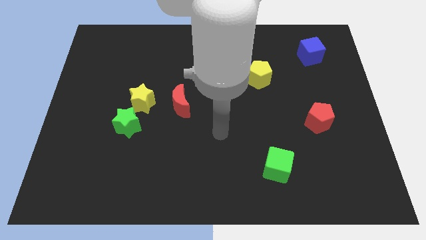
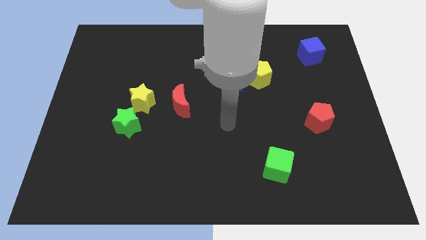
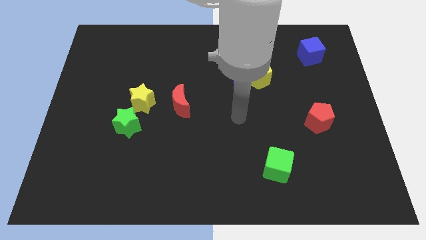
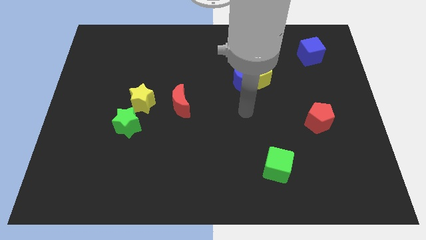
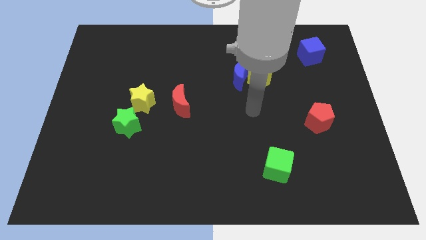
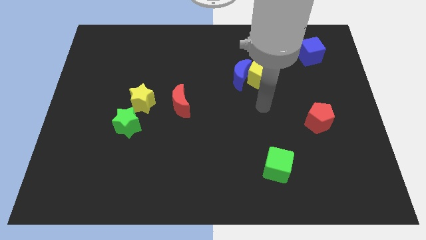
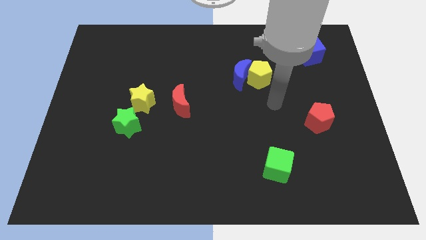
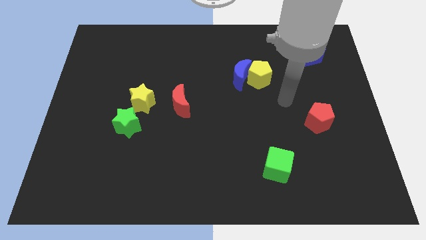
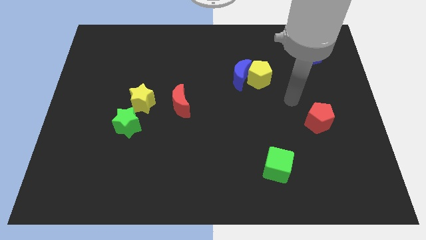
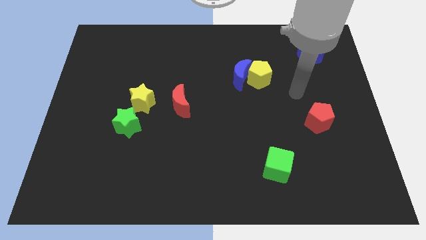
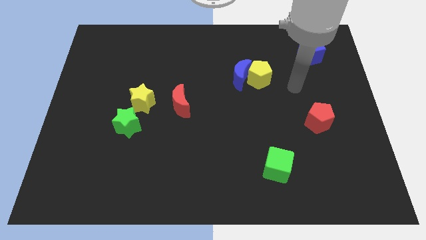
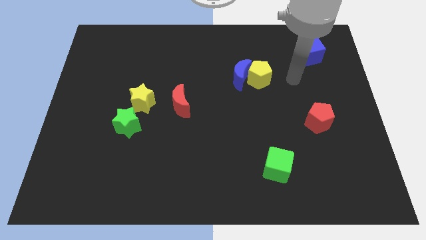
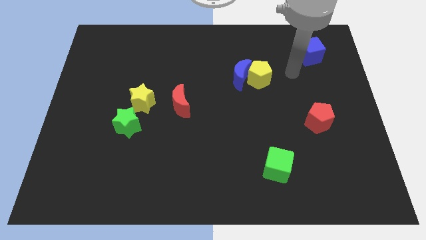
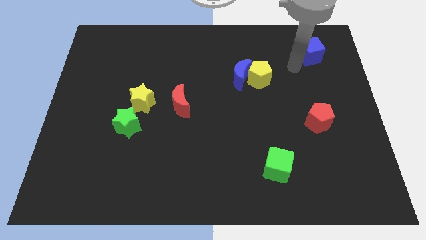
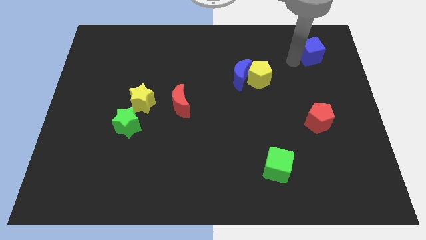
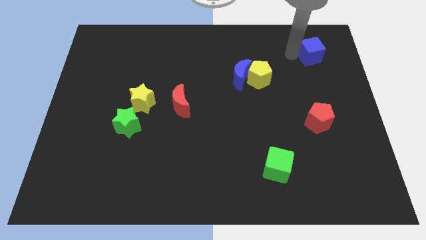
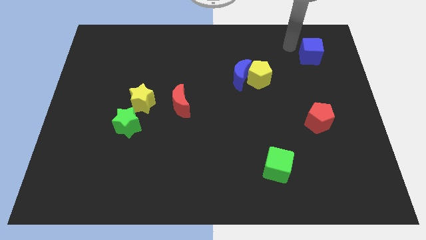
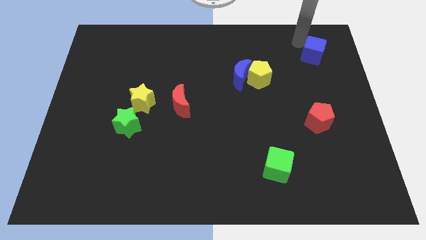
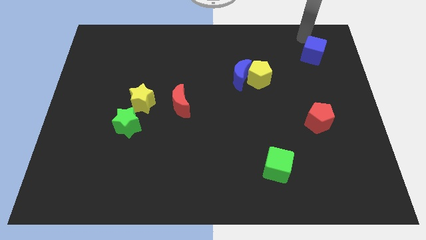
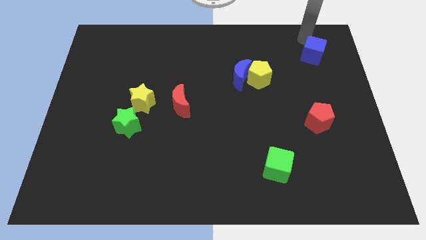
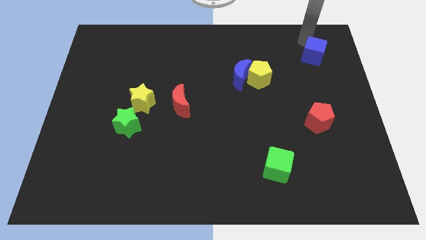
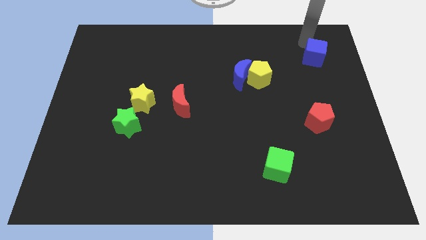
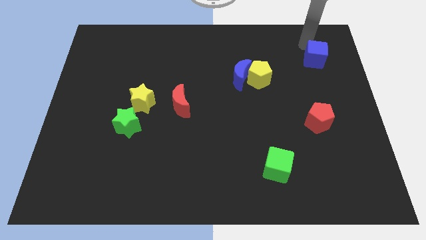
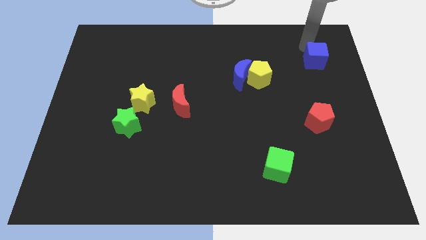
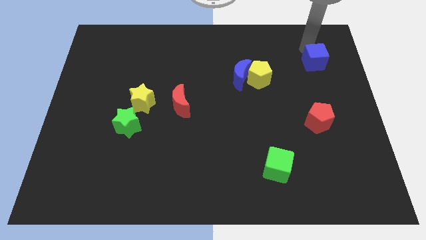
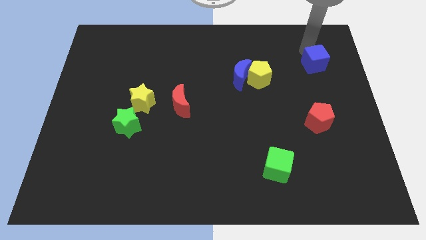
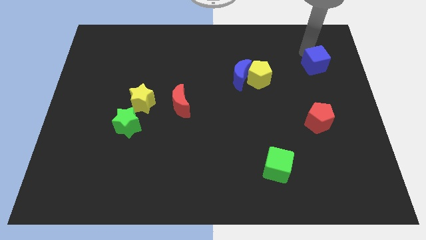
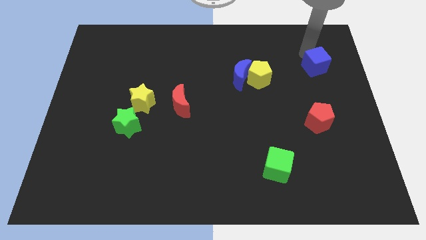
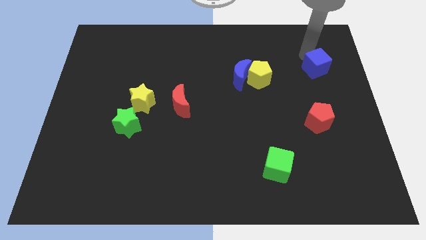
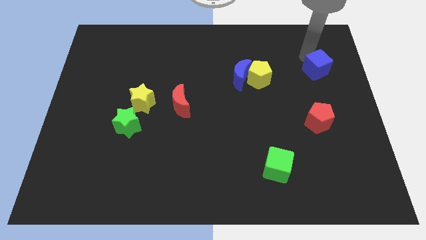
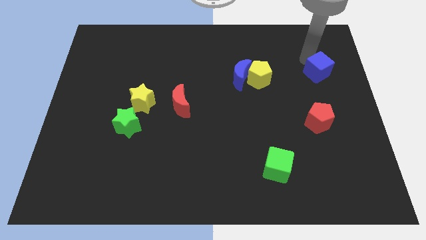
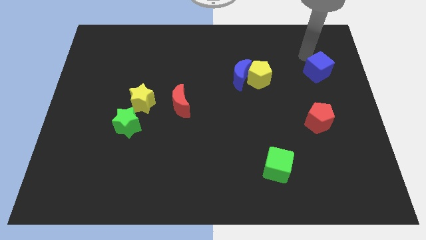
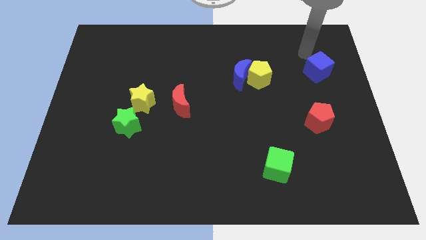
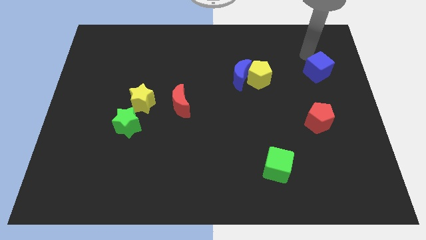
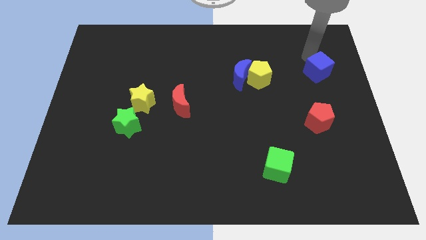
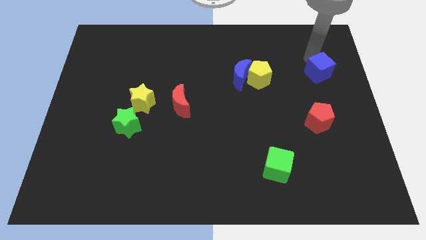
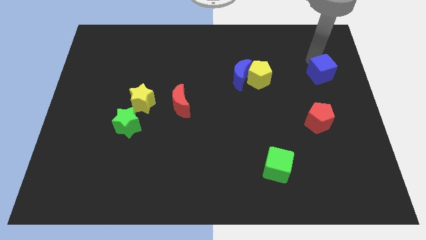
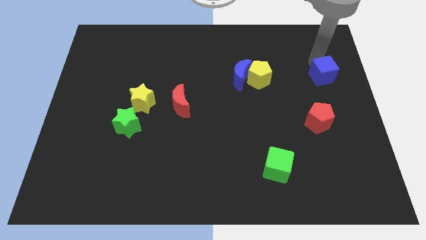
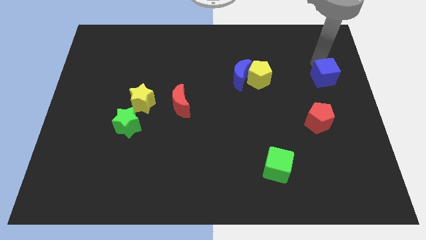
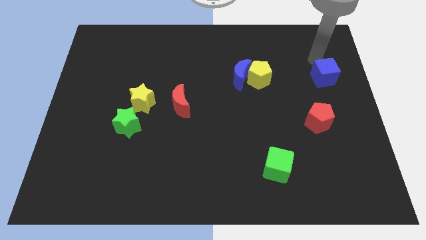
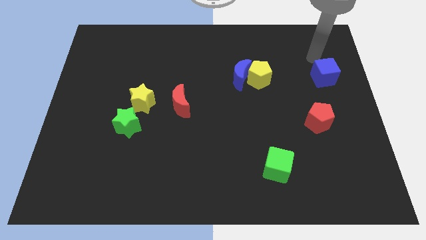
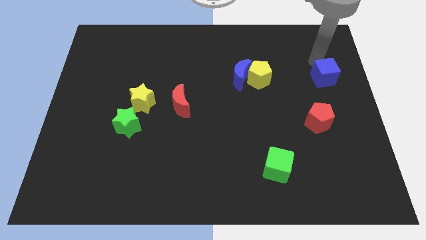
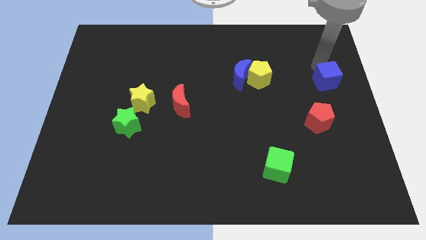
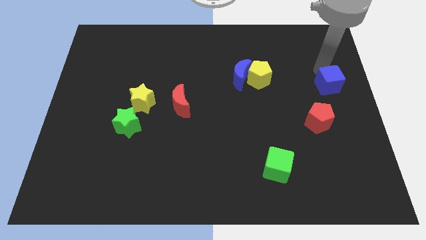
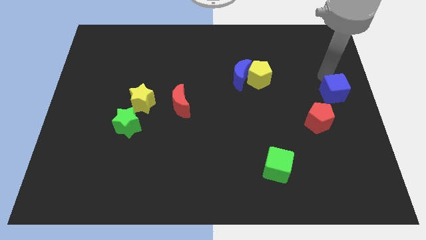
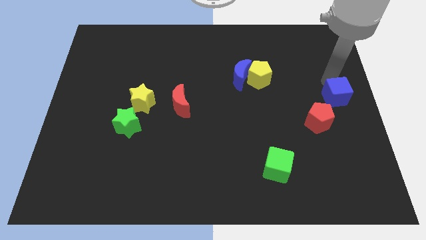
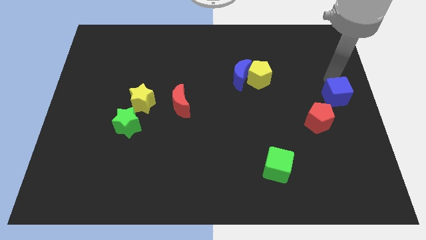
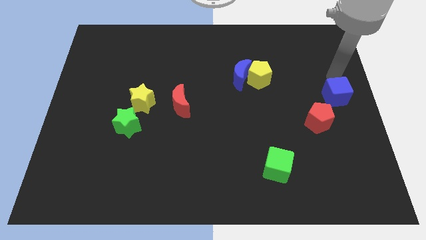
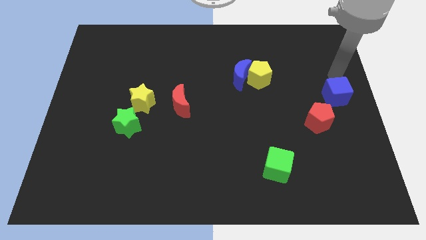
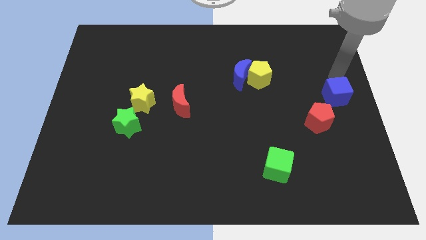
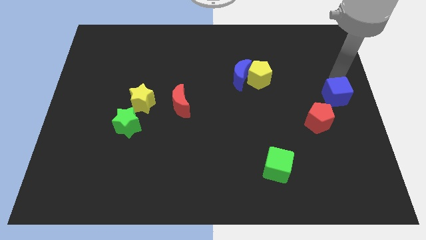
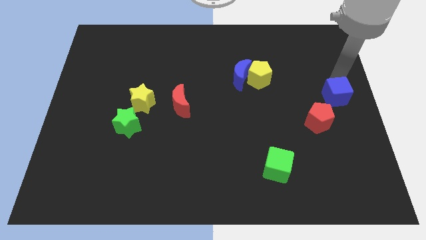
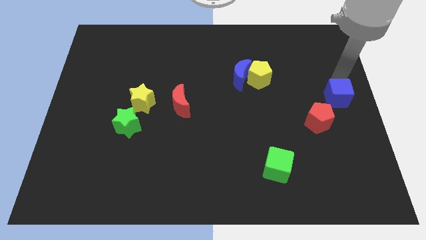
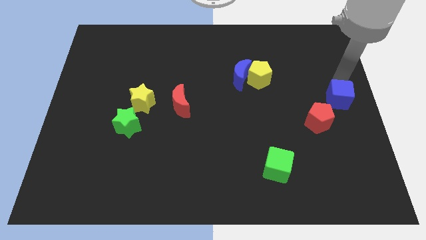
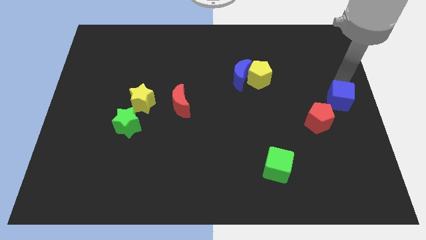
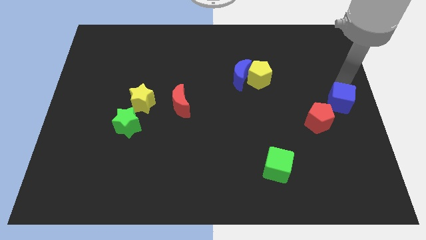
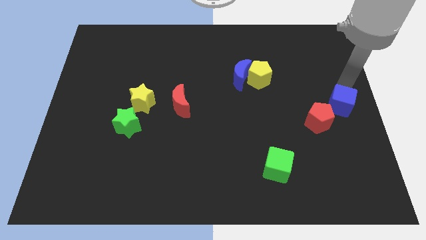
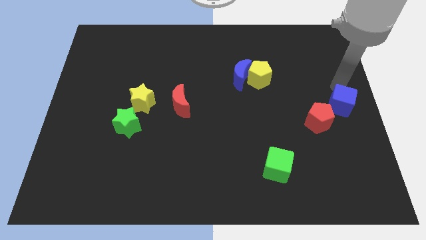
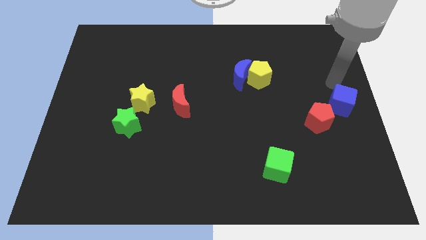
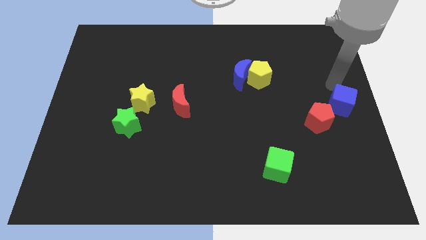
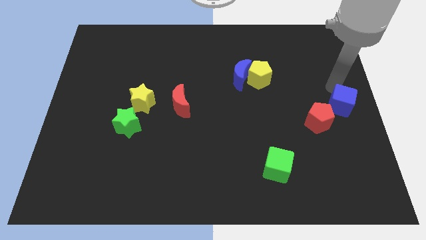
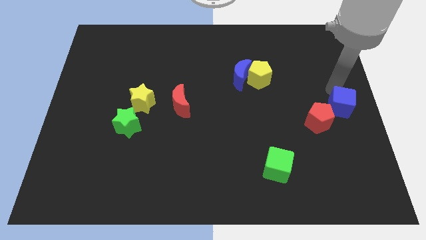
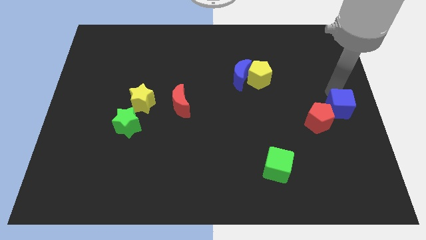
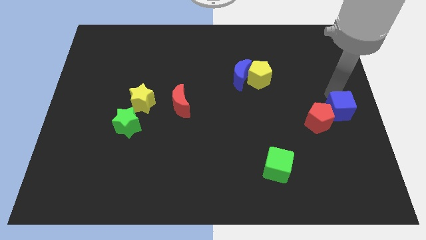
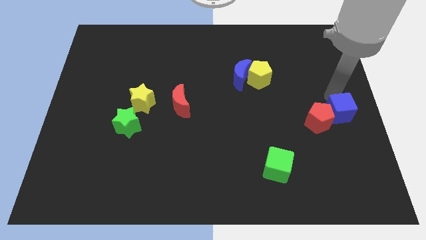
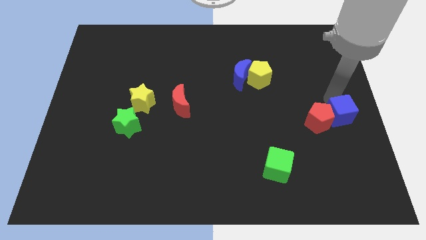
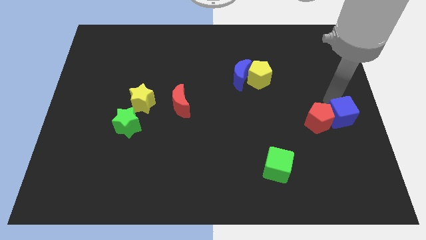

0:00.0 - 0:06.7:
move the blue cube down

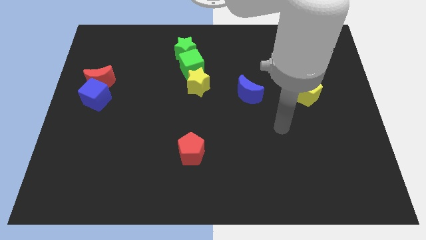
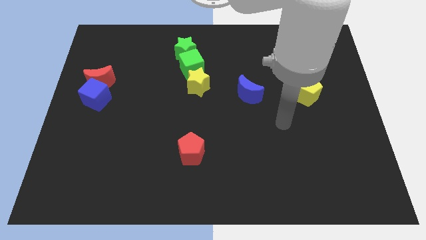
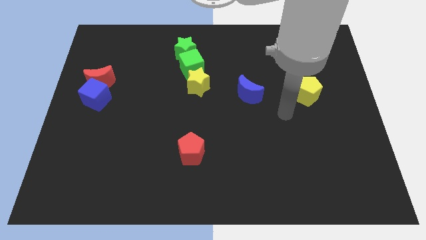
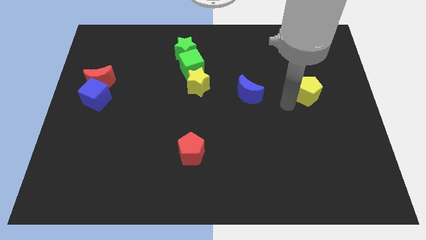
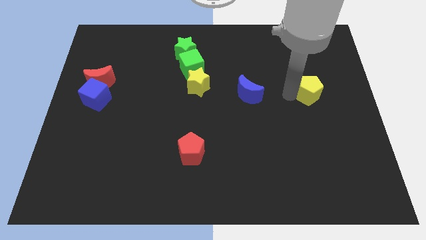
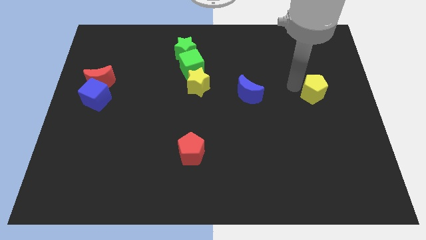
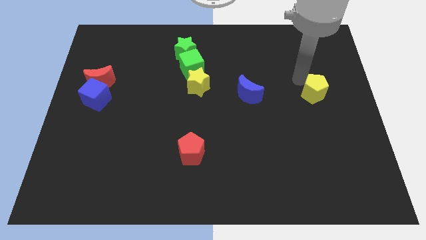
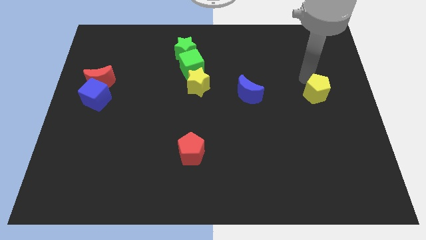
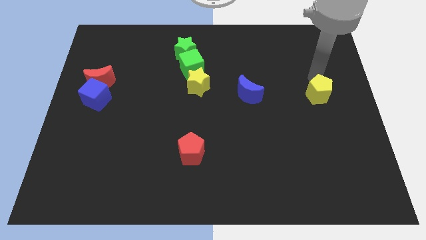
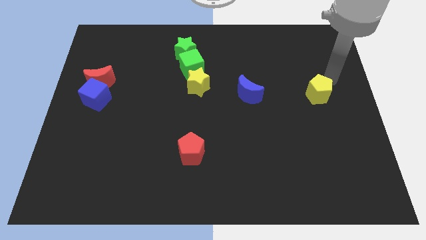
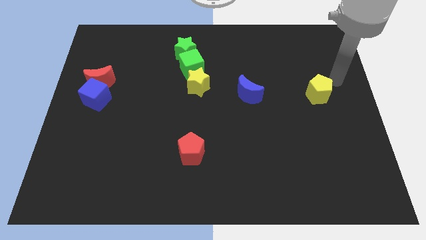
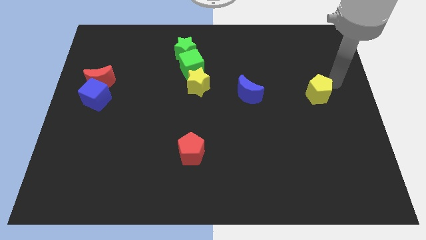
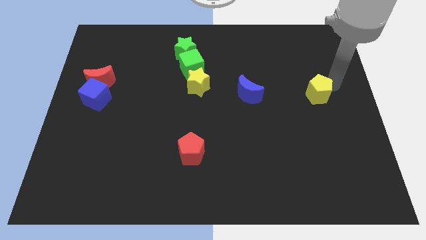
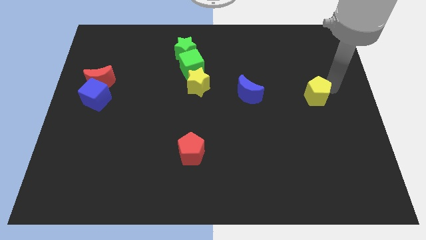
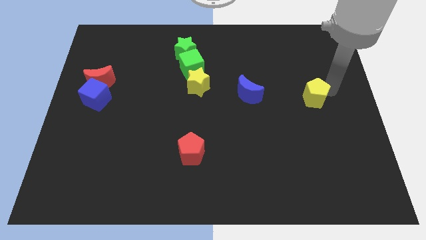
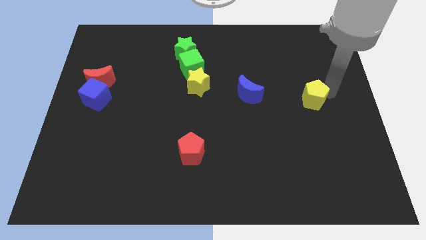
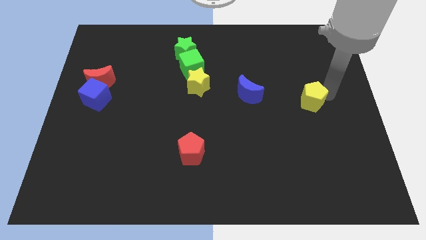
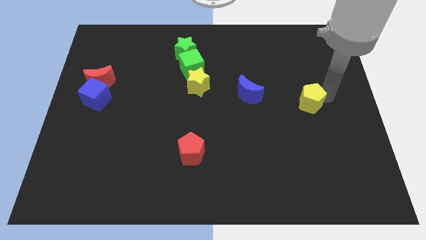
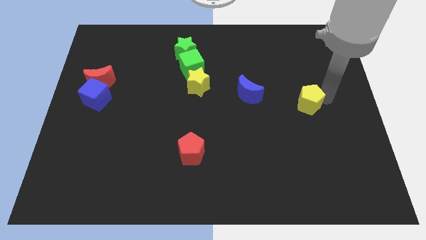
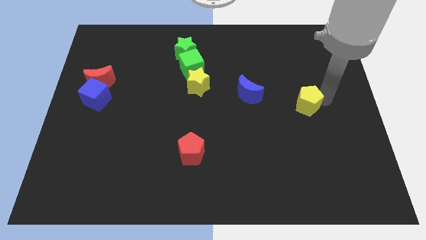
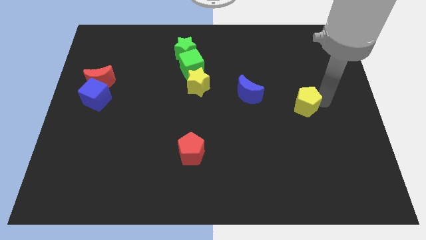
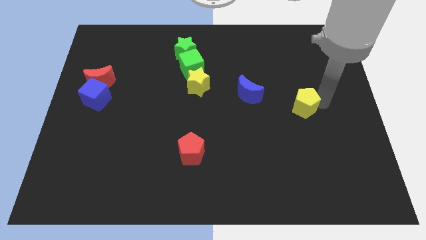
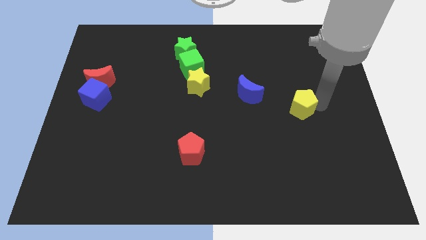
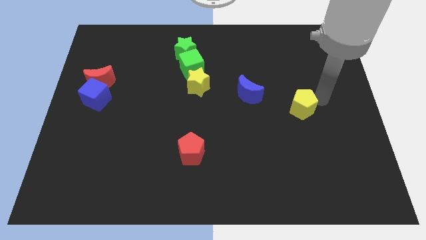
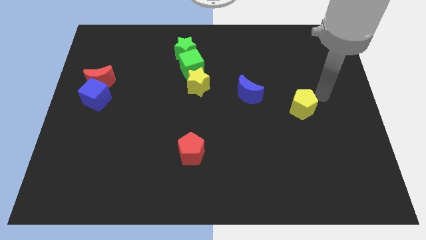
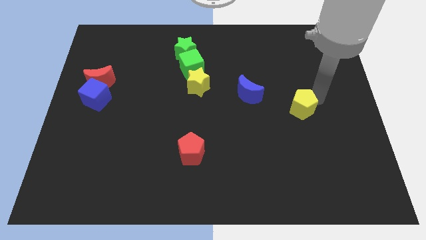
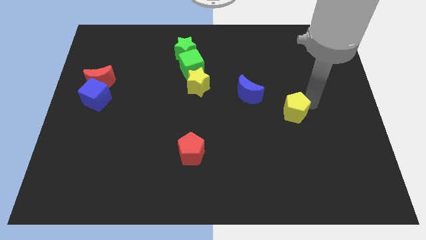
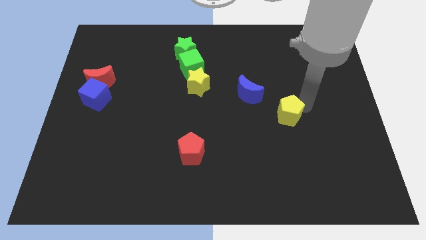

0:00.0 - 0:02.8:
slightly slide the yellow pentagon downwards and then to the left
